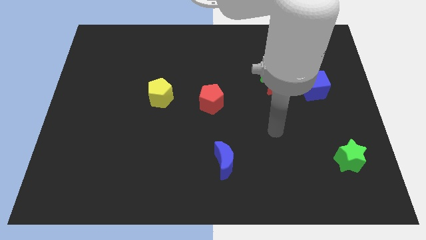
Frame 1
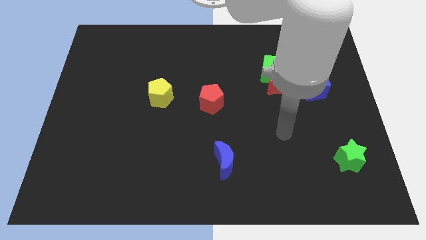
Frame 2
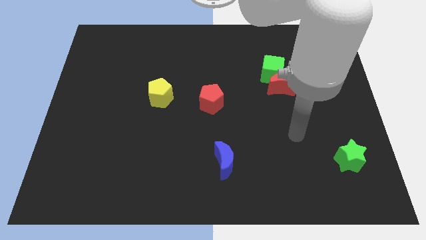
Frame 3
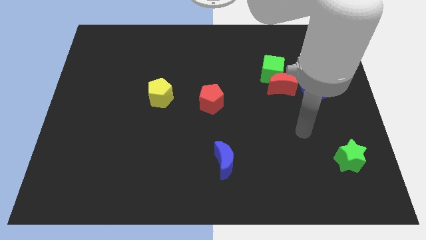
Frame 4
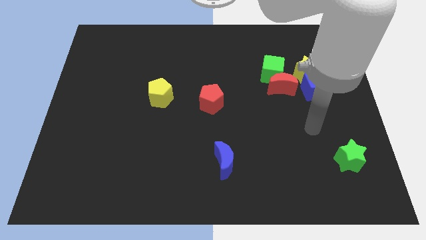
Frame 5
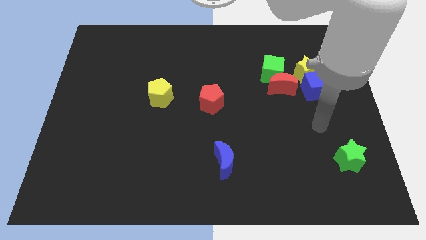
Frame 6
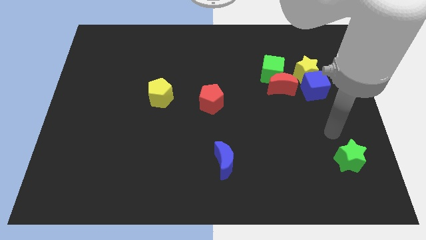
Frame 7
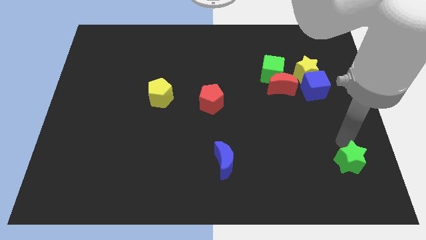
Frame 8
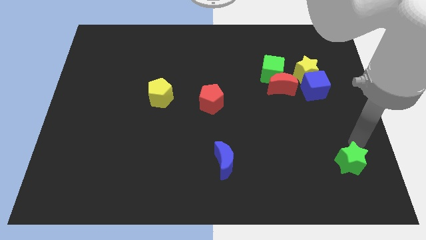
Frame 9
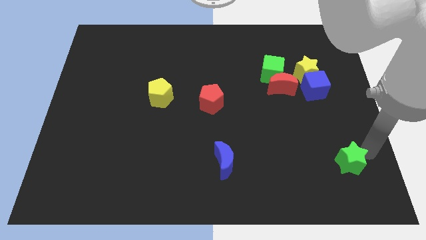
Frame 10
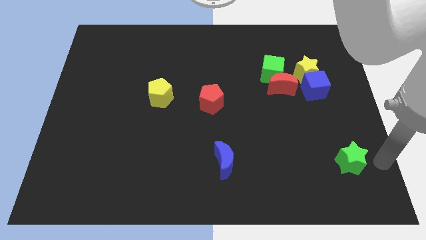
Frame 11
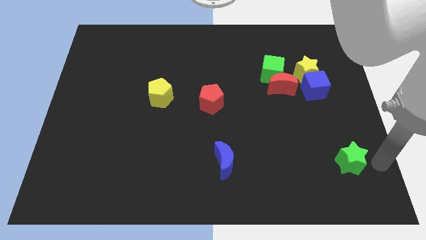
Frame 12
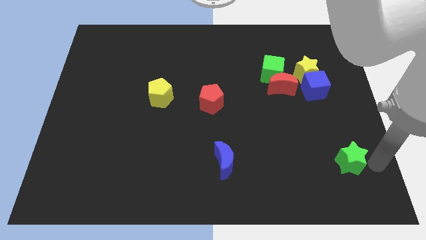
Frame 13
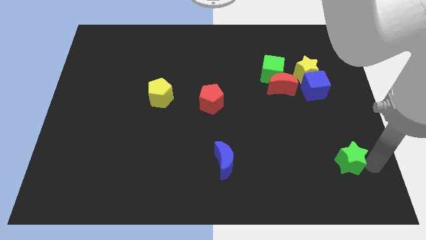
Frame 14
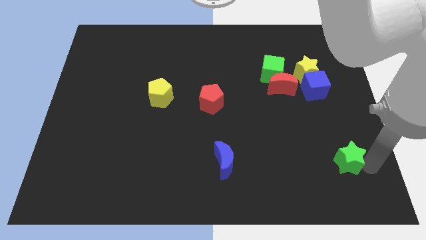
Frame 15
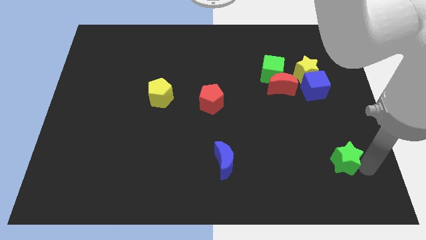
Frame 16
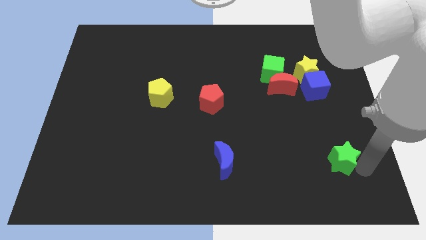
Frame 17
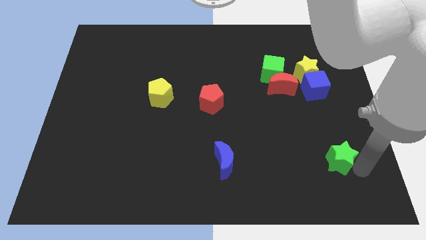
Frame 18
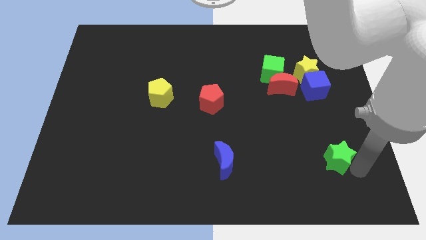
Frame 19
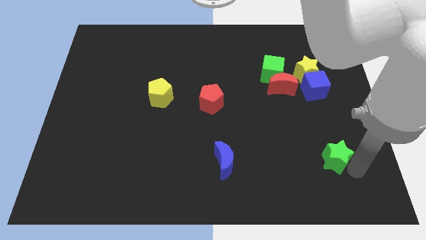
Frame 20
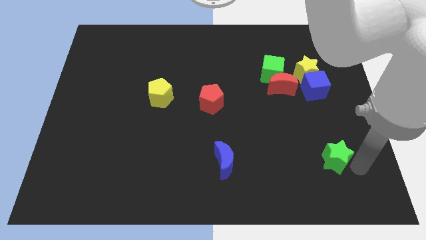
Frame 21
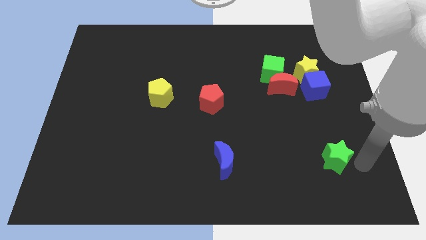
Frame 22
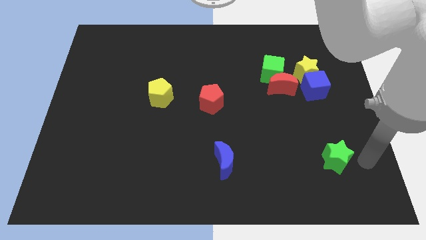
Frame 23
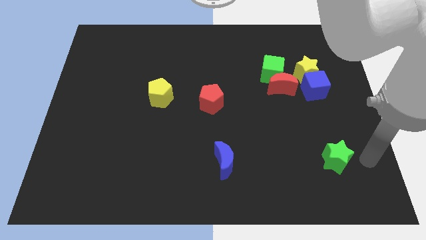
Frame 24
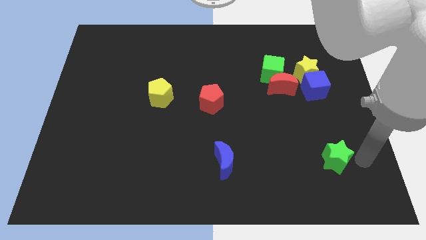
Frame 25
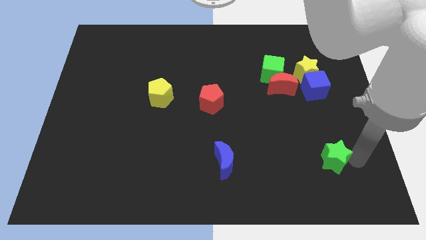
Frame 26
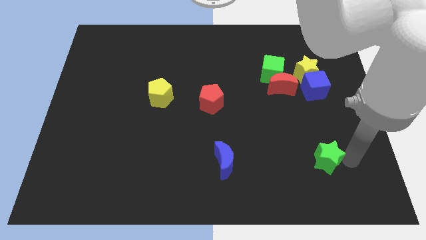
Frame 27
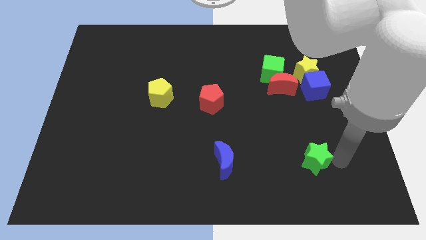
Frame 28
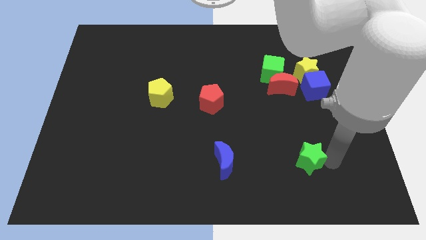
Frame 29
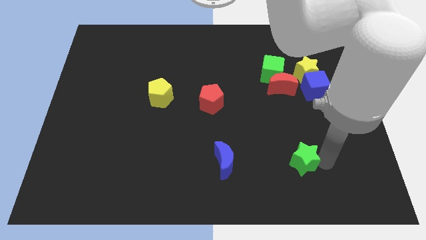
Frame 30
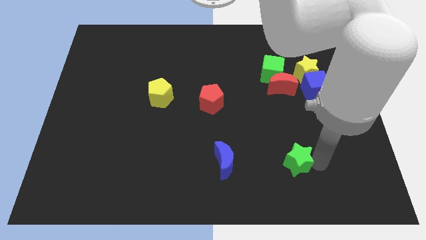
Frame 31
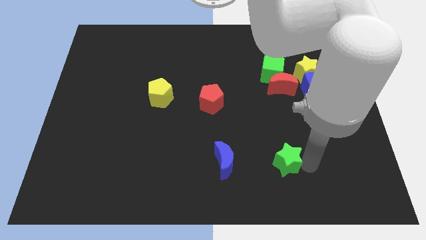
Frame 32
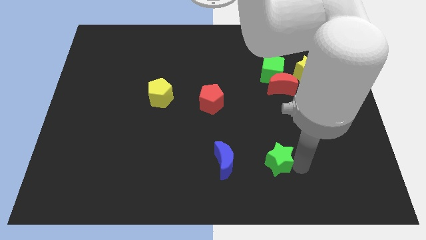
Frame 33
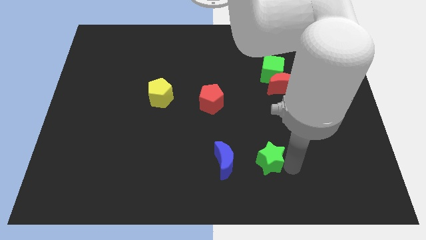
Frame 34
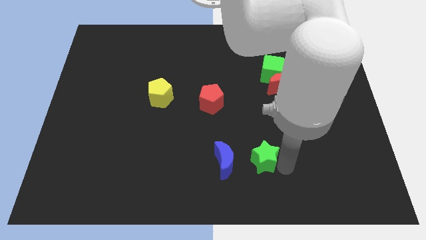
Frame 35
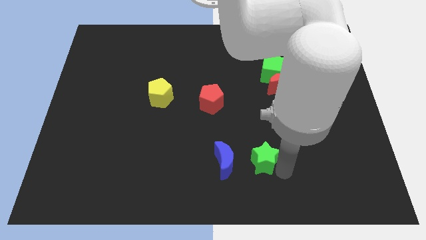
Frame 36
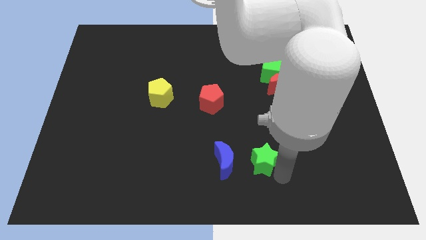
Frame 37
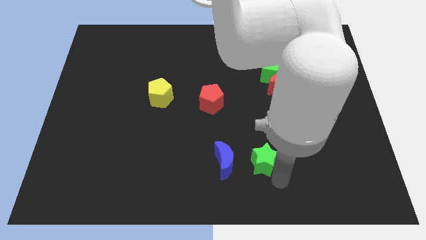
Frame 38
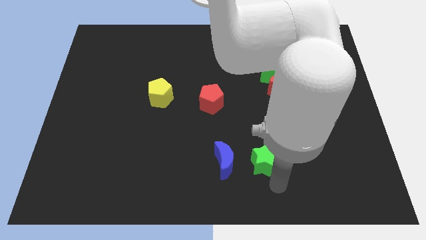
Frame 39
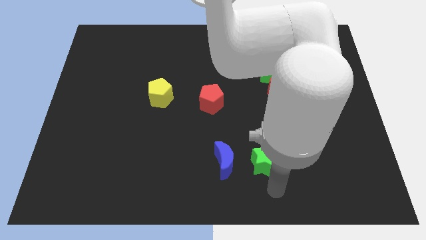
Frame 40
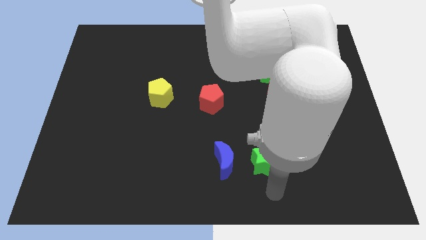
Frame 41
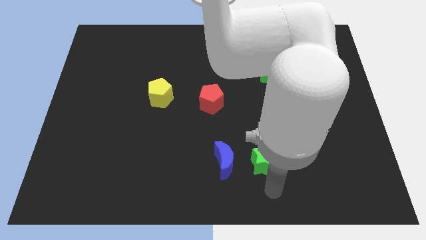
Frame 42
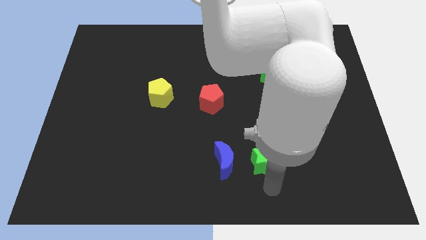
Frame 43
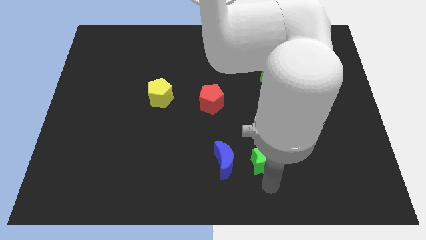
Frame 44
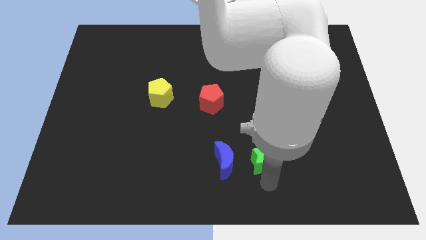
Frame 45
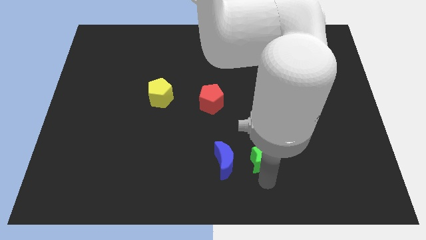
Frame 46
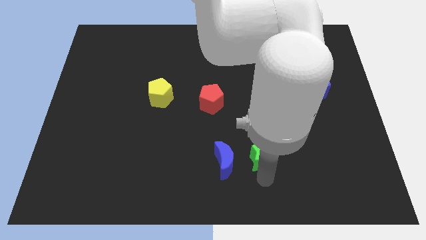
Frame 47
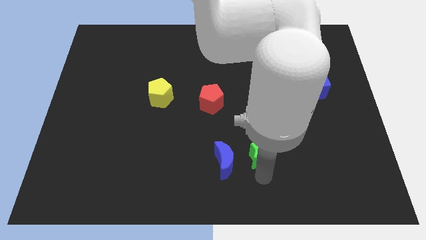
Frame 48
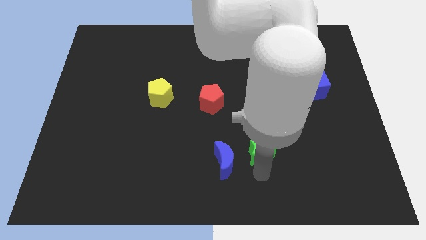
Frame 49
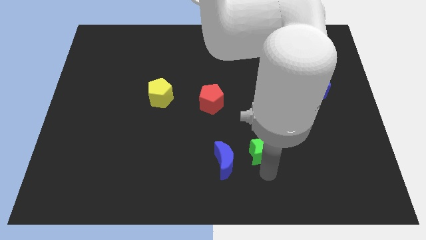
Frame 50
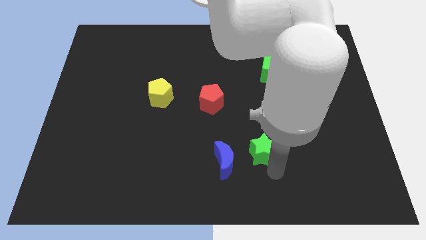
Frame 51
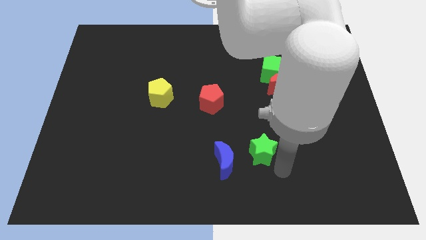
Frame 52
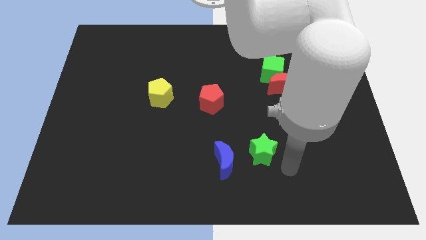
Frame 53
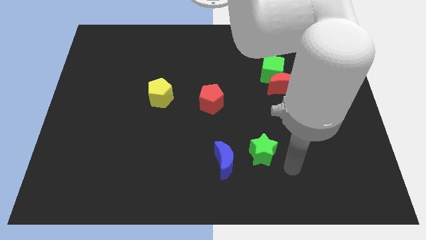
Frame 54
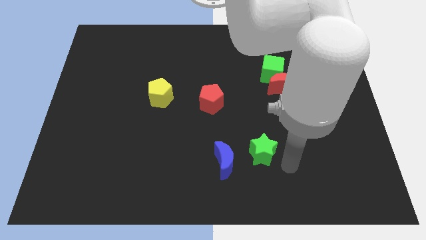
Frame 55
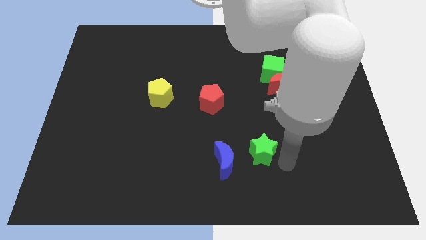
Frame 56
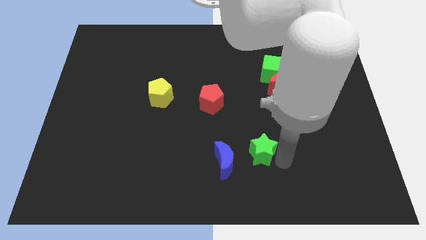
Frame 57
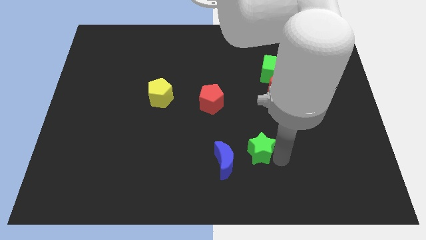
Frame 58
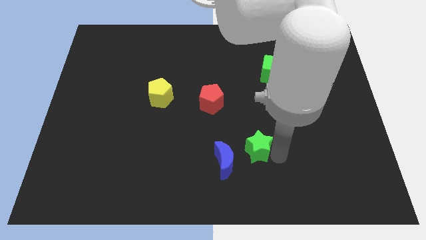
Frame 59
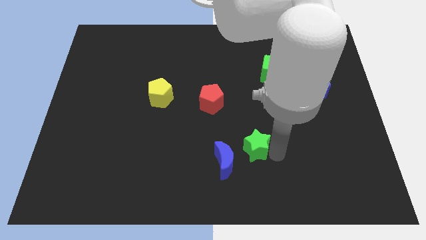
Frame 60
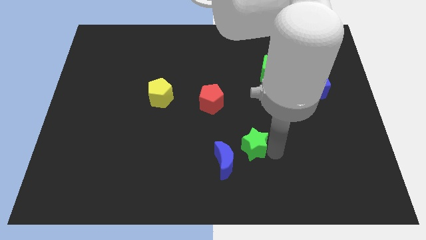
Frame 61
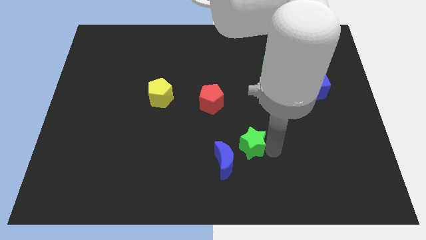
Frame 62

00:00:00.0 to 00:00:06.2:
move the green star to the left

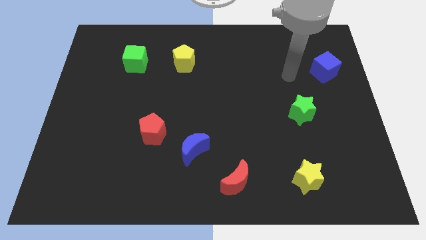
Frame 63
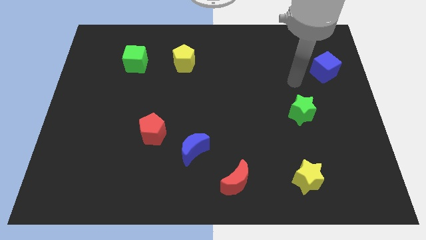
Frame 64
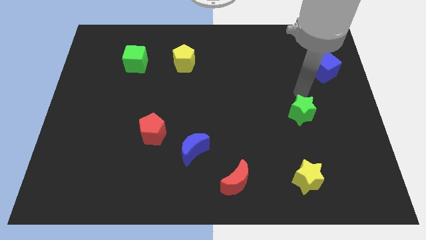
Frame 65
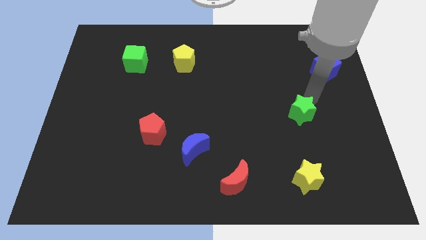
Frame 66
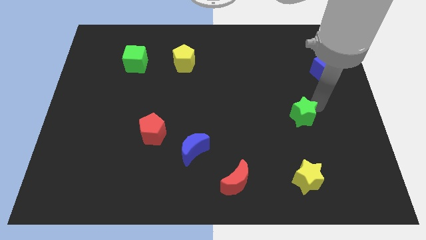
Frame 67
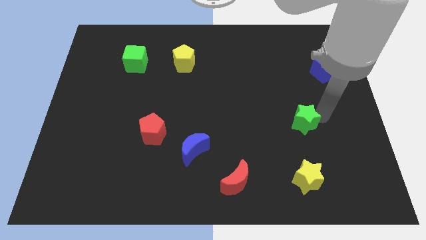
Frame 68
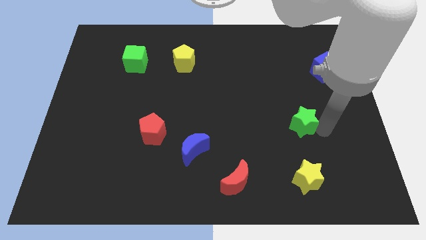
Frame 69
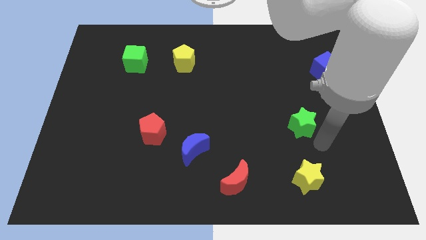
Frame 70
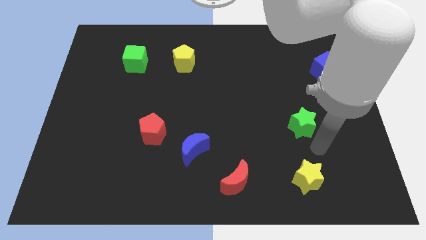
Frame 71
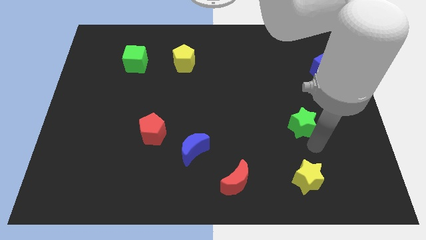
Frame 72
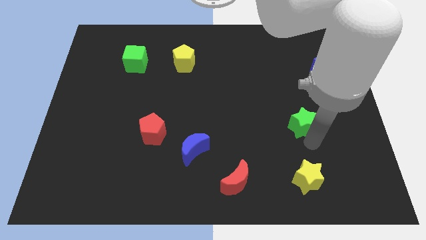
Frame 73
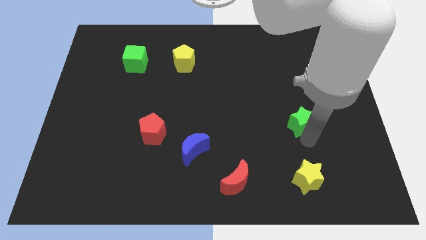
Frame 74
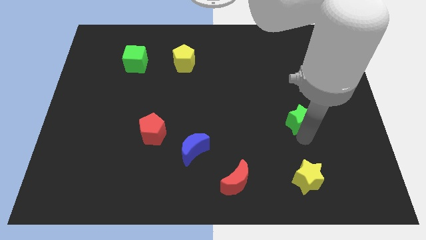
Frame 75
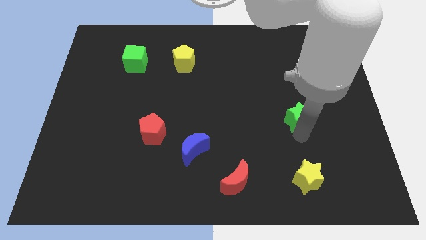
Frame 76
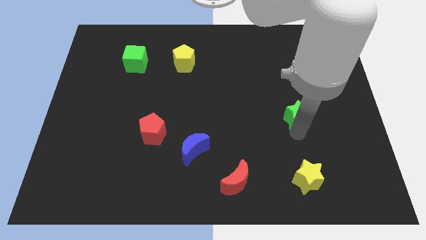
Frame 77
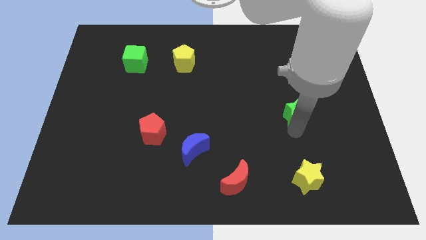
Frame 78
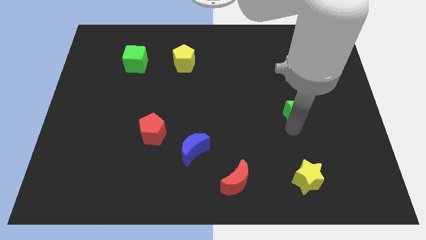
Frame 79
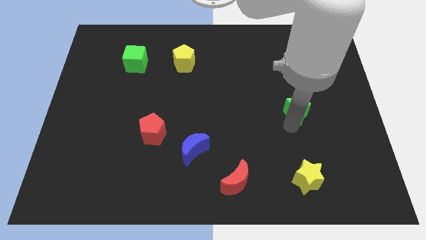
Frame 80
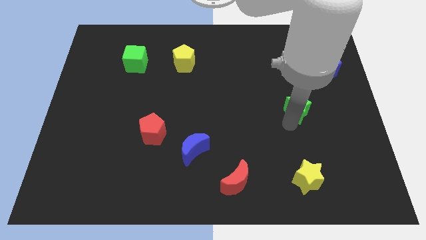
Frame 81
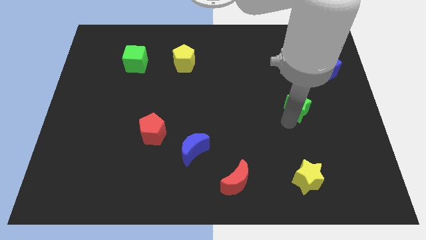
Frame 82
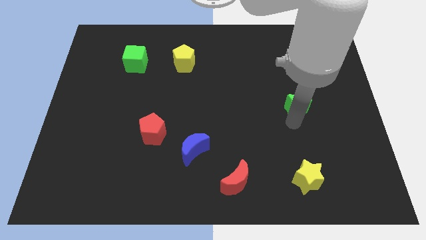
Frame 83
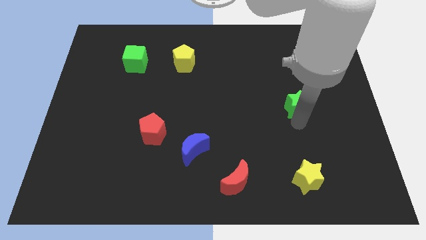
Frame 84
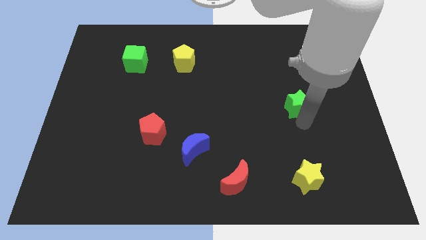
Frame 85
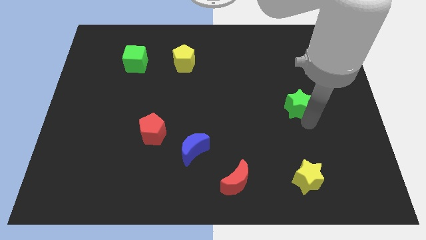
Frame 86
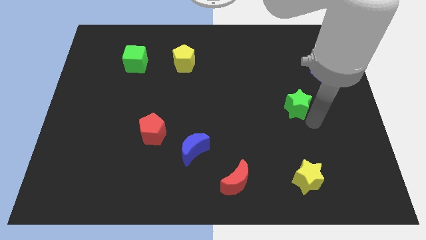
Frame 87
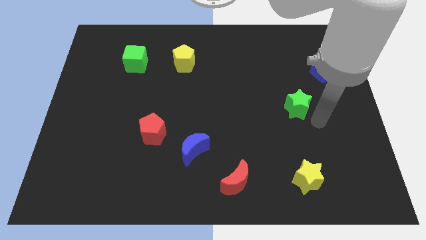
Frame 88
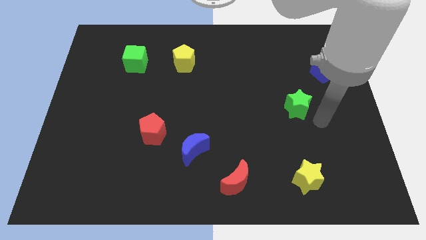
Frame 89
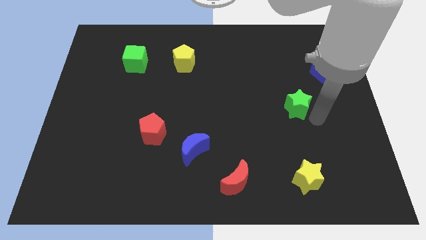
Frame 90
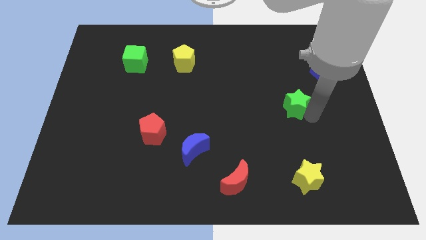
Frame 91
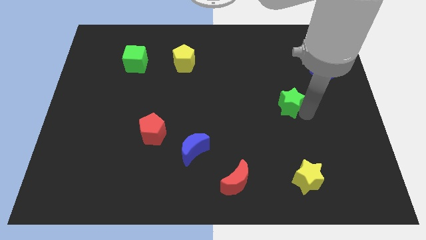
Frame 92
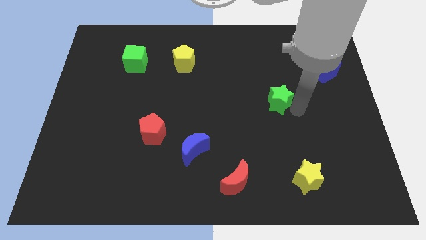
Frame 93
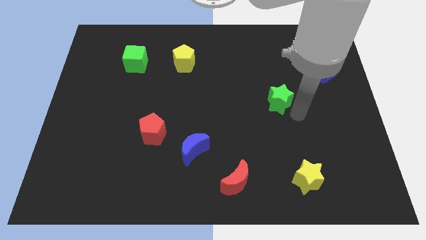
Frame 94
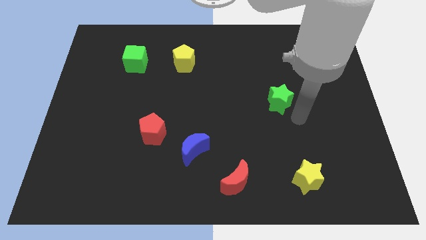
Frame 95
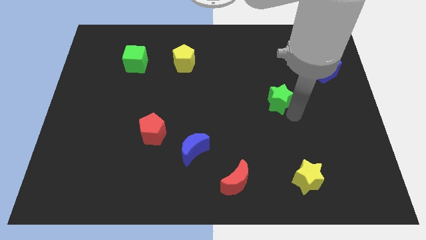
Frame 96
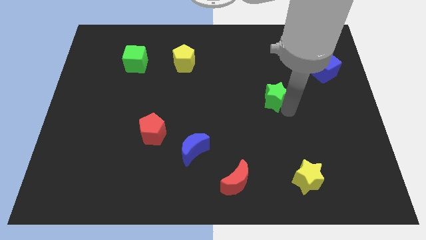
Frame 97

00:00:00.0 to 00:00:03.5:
slightly push the green star up and left diagonally
